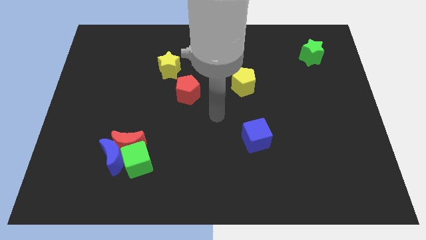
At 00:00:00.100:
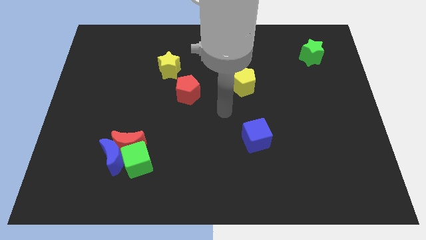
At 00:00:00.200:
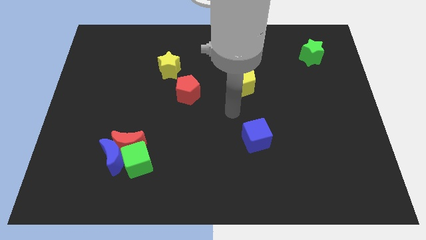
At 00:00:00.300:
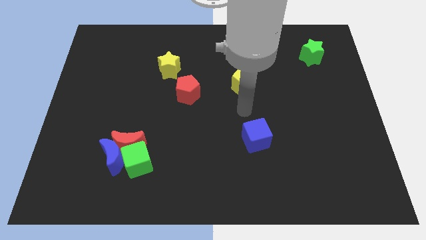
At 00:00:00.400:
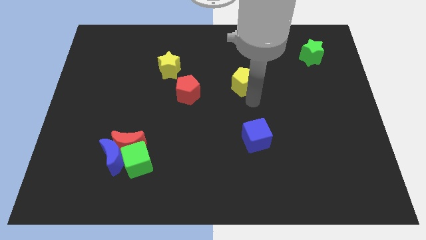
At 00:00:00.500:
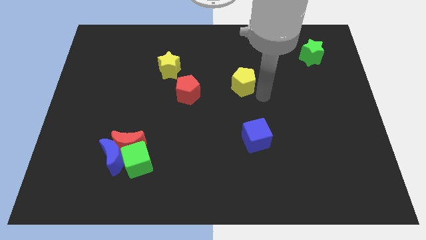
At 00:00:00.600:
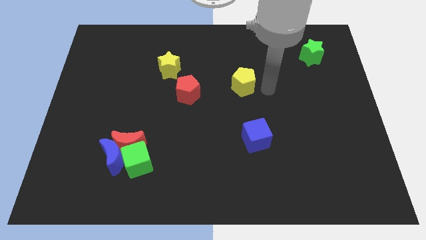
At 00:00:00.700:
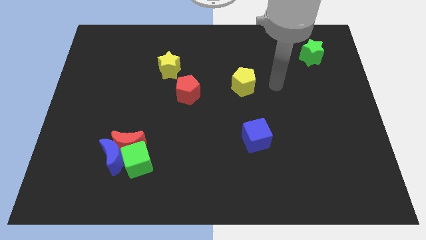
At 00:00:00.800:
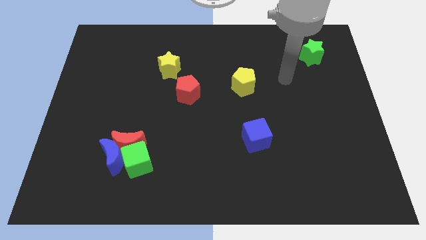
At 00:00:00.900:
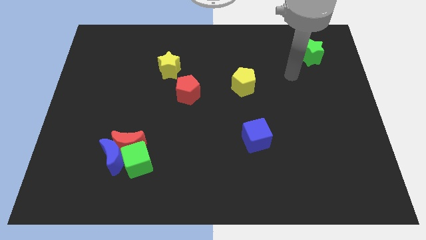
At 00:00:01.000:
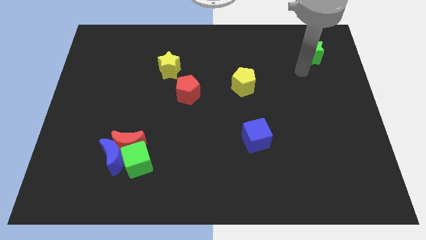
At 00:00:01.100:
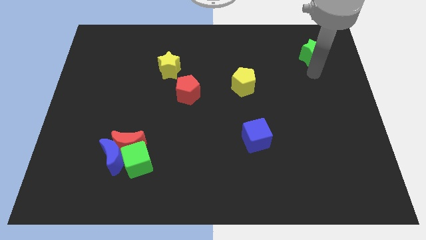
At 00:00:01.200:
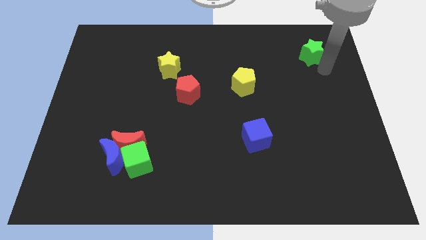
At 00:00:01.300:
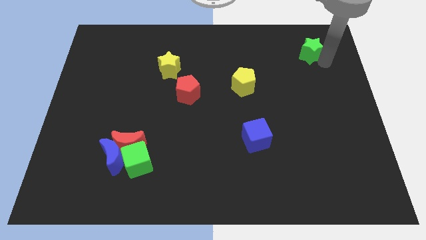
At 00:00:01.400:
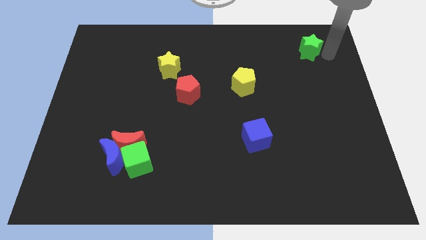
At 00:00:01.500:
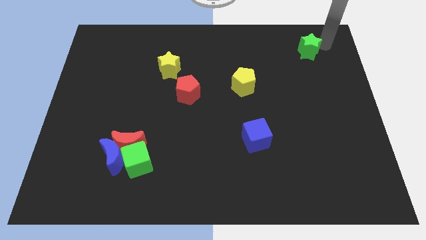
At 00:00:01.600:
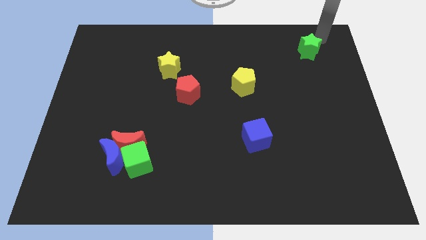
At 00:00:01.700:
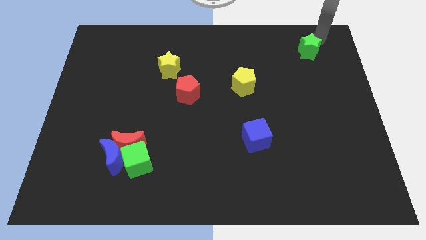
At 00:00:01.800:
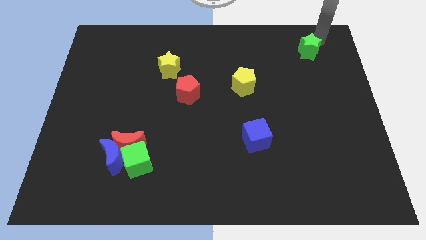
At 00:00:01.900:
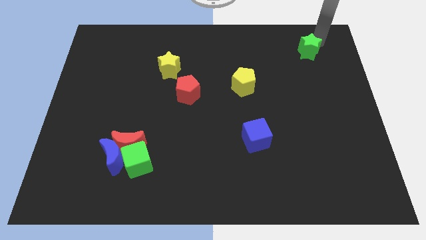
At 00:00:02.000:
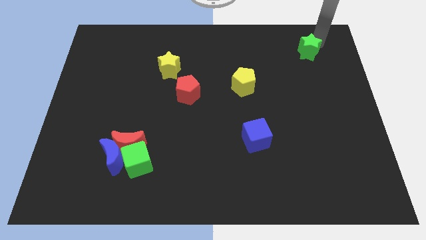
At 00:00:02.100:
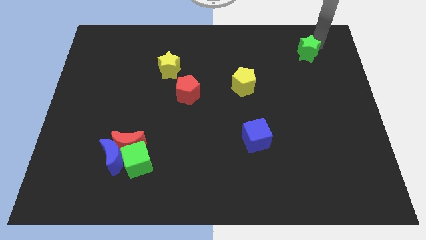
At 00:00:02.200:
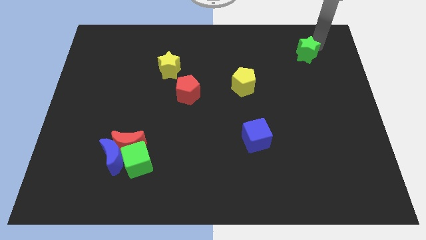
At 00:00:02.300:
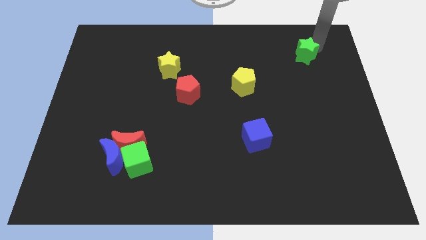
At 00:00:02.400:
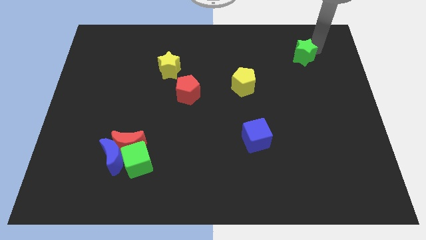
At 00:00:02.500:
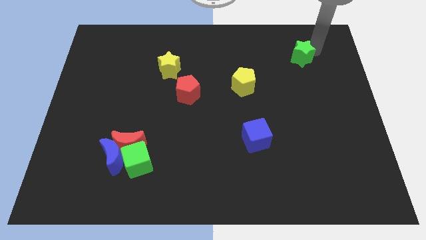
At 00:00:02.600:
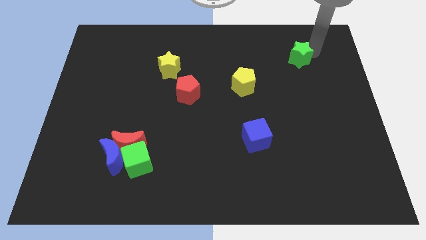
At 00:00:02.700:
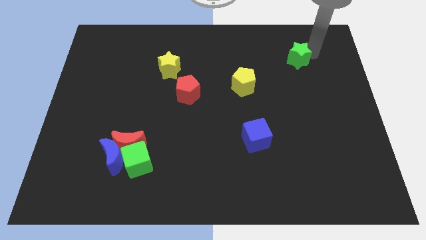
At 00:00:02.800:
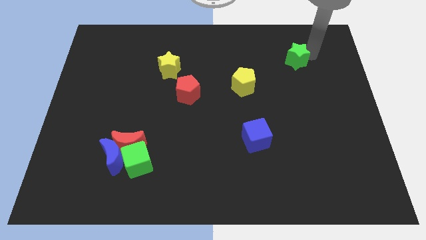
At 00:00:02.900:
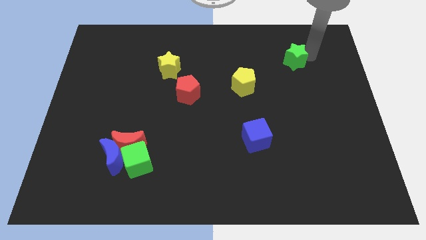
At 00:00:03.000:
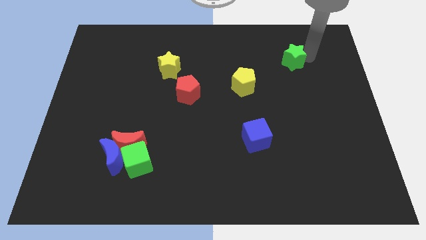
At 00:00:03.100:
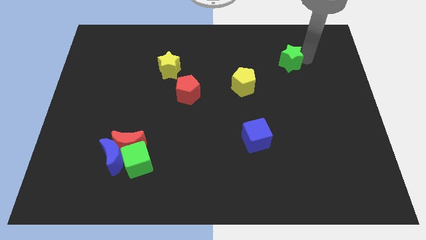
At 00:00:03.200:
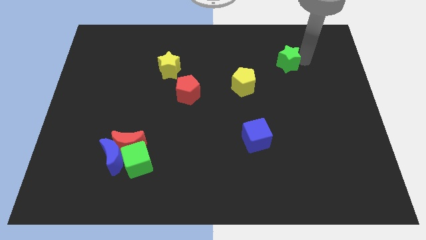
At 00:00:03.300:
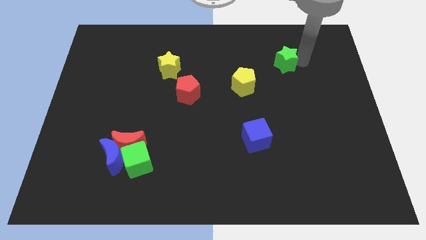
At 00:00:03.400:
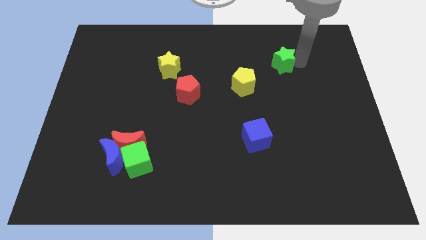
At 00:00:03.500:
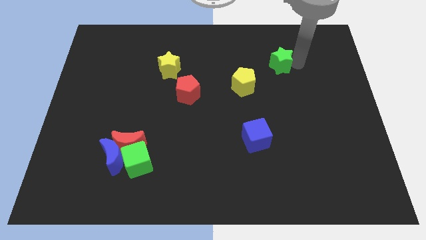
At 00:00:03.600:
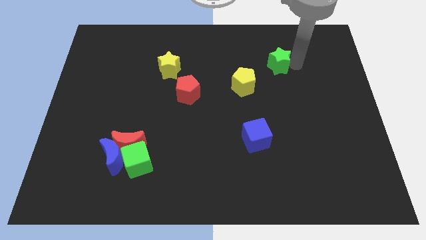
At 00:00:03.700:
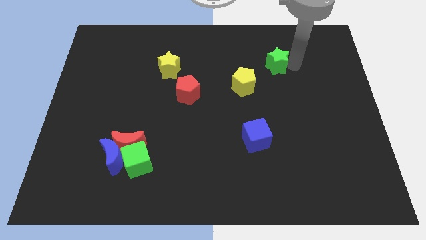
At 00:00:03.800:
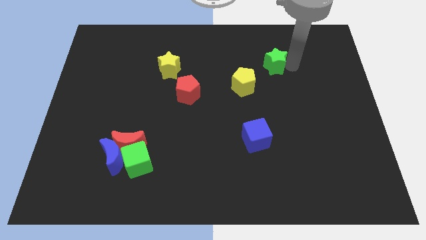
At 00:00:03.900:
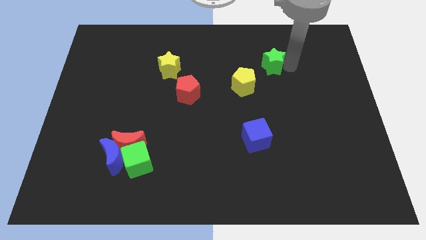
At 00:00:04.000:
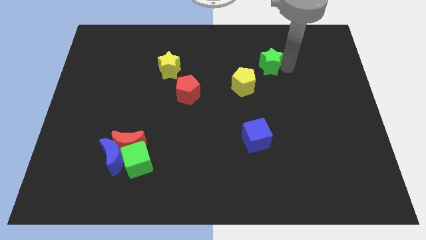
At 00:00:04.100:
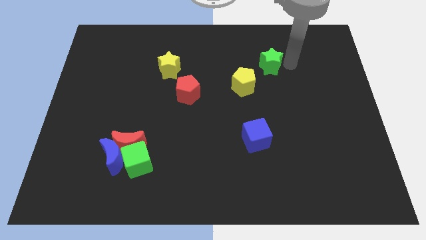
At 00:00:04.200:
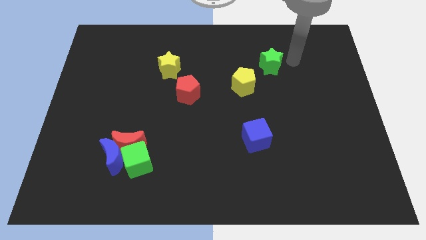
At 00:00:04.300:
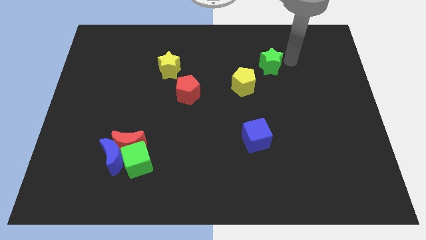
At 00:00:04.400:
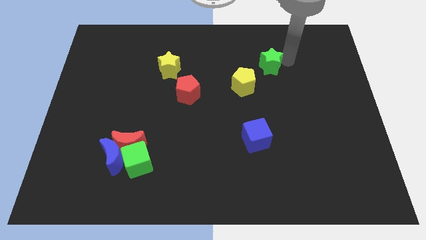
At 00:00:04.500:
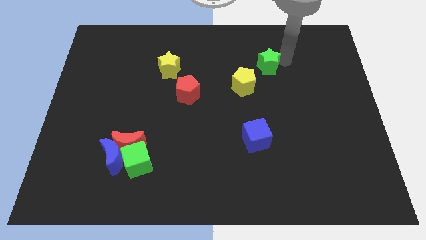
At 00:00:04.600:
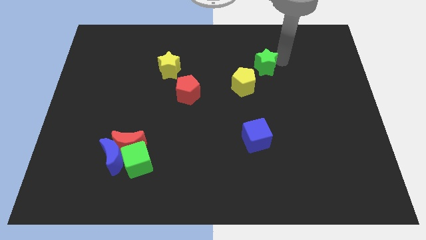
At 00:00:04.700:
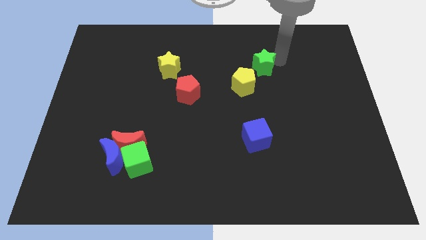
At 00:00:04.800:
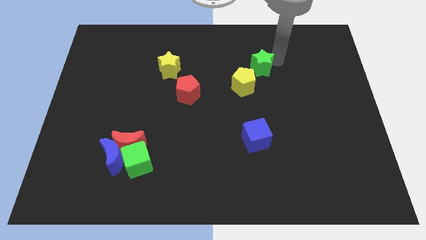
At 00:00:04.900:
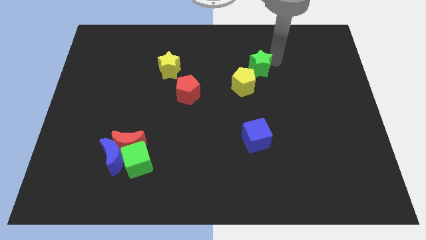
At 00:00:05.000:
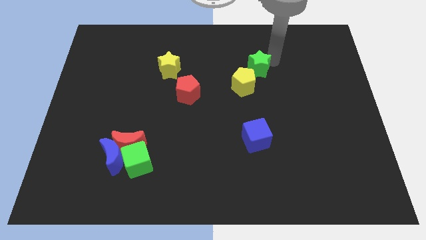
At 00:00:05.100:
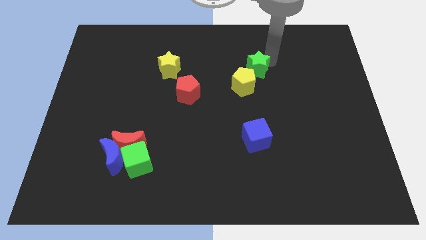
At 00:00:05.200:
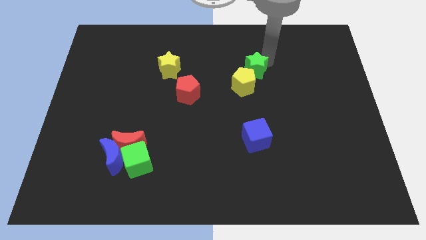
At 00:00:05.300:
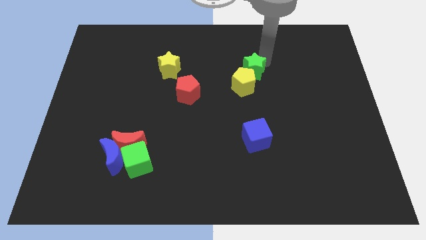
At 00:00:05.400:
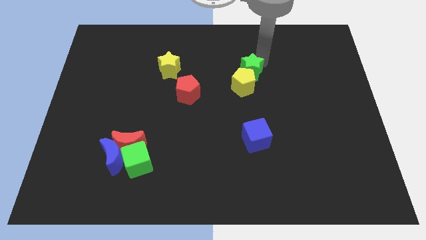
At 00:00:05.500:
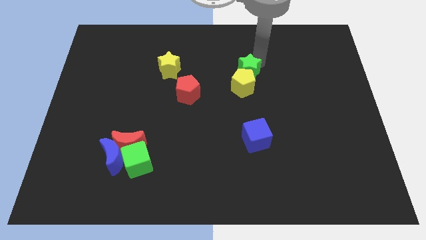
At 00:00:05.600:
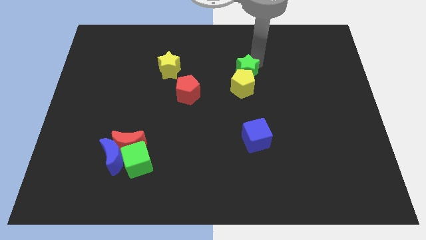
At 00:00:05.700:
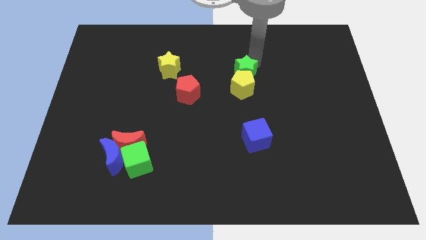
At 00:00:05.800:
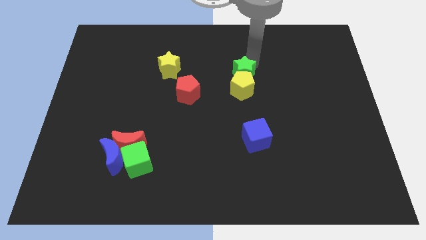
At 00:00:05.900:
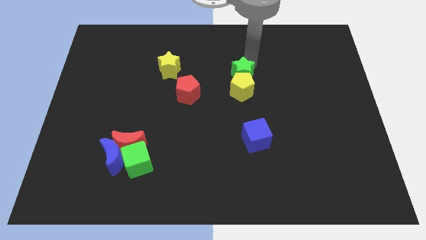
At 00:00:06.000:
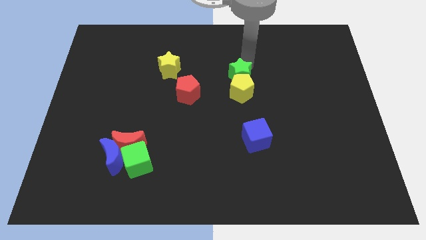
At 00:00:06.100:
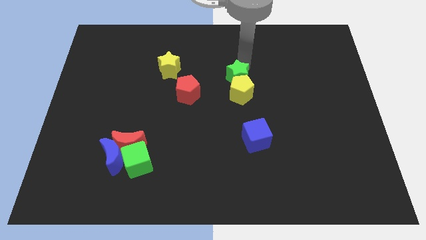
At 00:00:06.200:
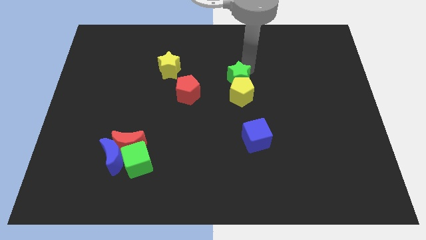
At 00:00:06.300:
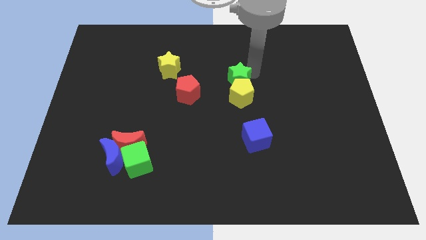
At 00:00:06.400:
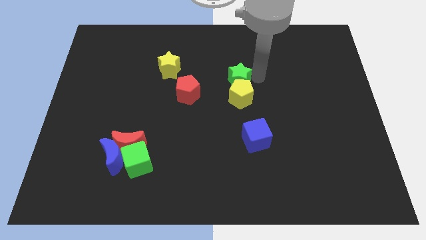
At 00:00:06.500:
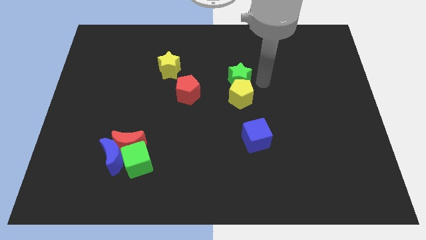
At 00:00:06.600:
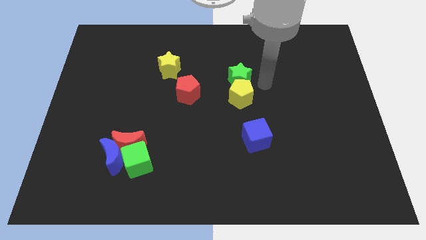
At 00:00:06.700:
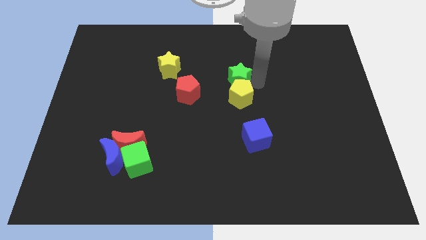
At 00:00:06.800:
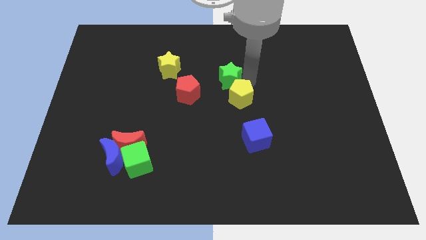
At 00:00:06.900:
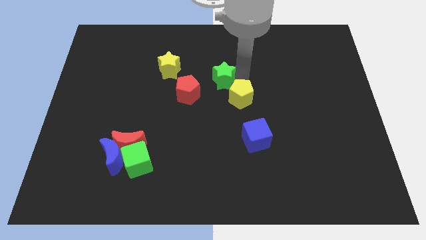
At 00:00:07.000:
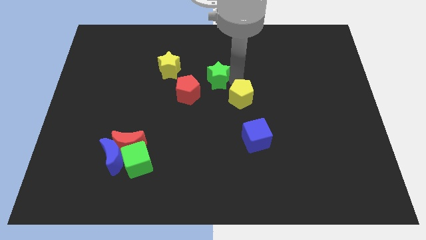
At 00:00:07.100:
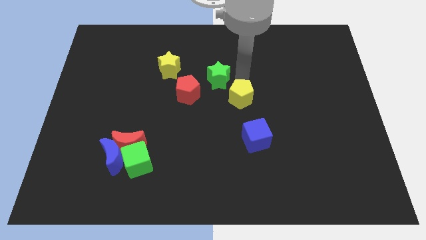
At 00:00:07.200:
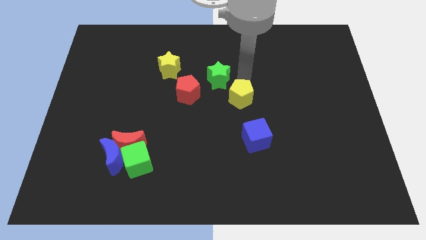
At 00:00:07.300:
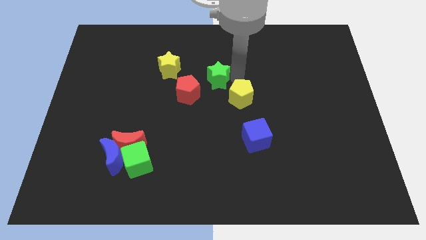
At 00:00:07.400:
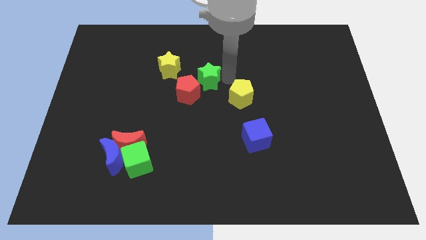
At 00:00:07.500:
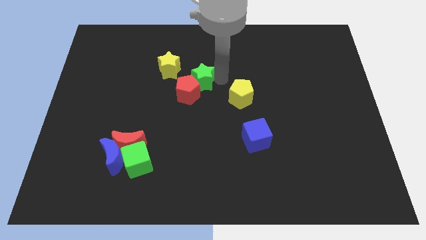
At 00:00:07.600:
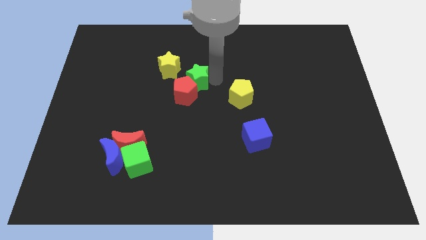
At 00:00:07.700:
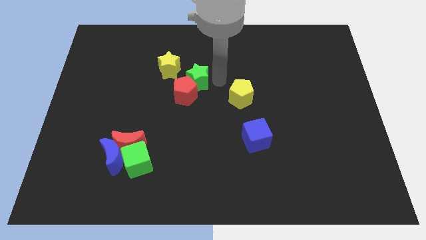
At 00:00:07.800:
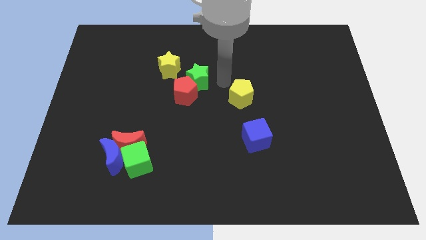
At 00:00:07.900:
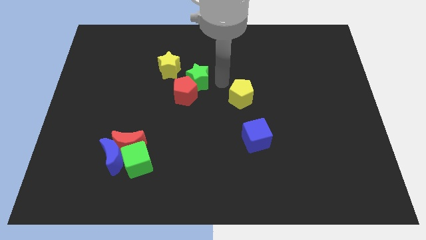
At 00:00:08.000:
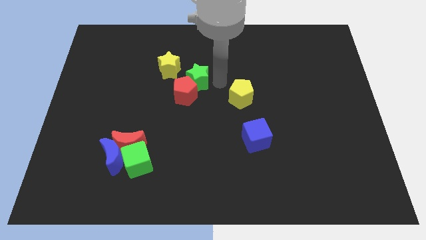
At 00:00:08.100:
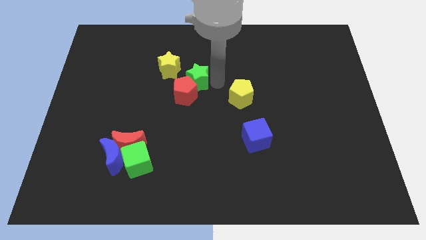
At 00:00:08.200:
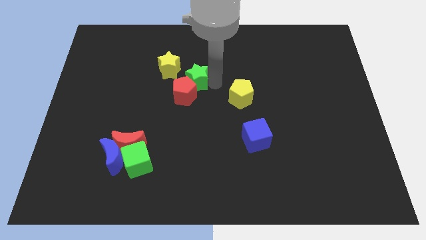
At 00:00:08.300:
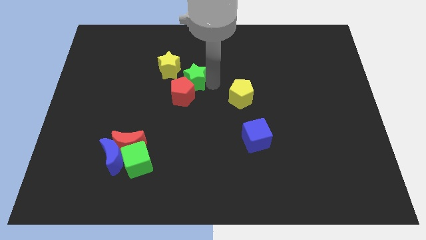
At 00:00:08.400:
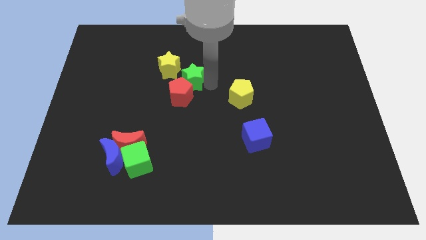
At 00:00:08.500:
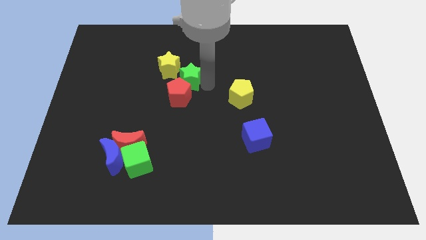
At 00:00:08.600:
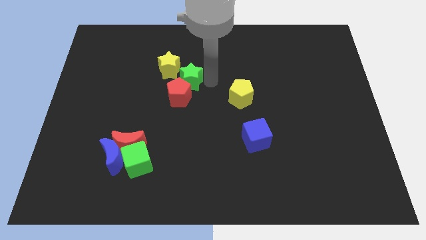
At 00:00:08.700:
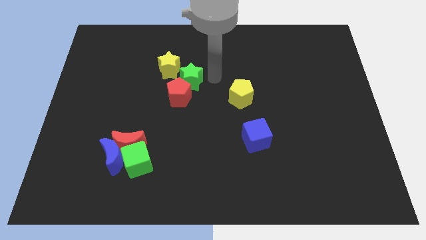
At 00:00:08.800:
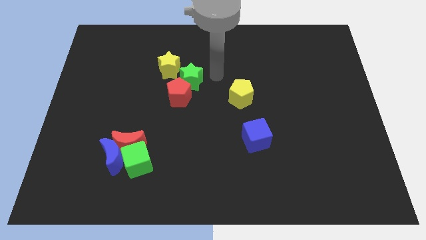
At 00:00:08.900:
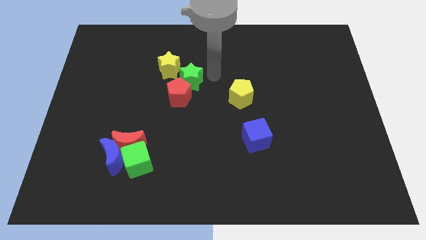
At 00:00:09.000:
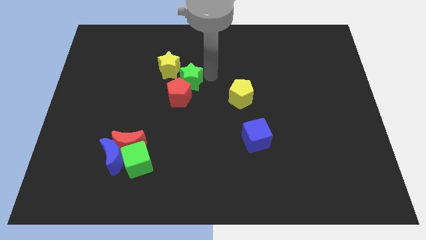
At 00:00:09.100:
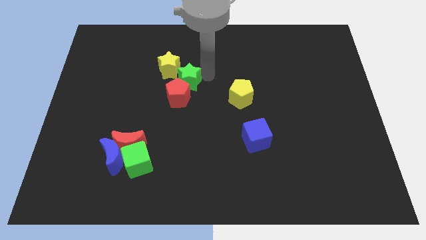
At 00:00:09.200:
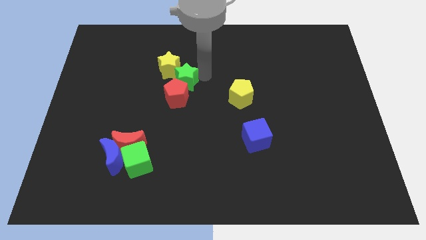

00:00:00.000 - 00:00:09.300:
move the green star to the bottom of the yellow star
